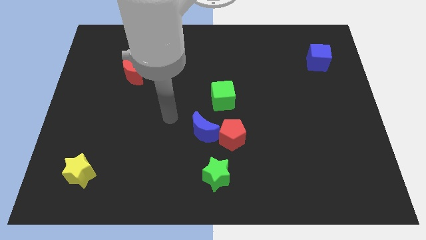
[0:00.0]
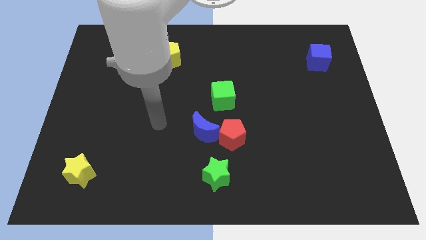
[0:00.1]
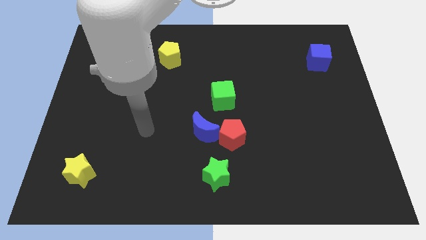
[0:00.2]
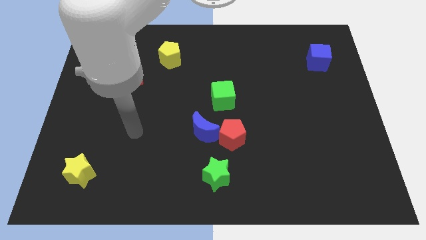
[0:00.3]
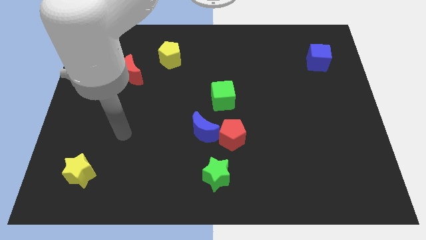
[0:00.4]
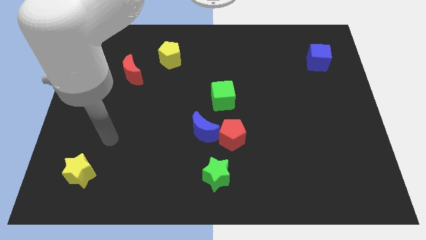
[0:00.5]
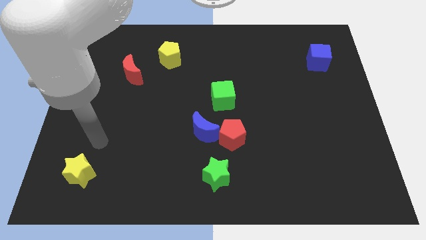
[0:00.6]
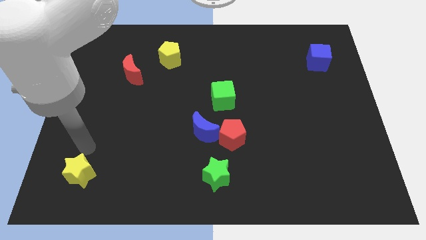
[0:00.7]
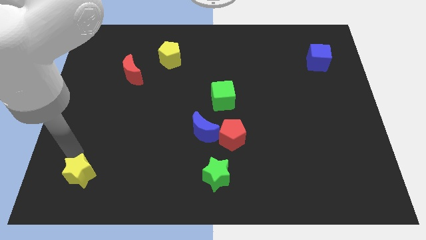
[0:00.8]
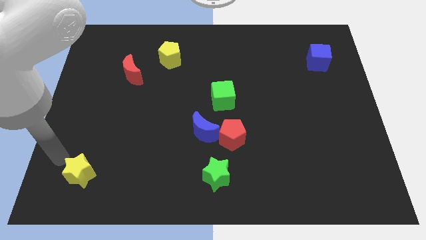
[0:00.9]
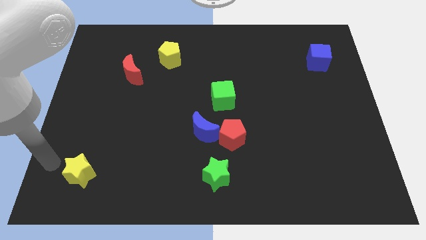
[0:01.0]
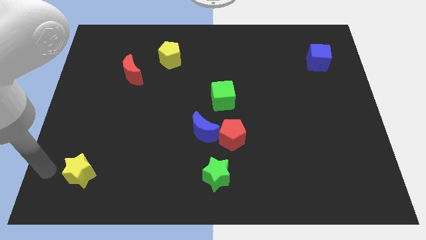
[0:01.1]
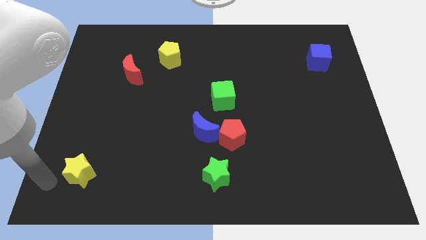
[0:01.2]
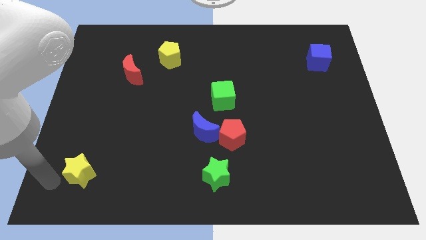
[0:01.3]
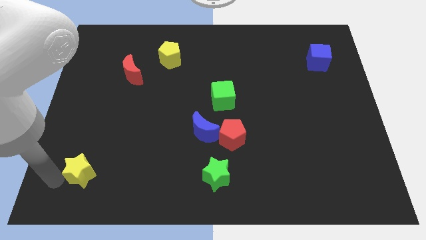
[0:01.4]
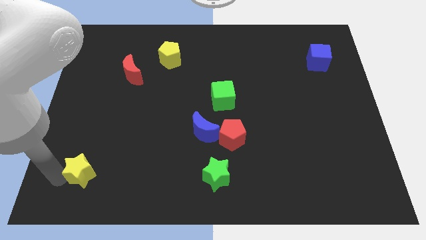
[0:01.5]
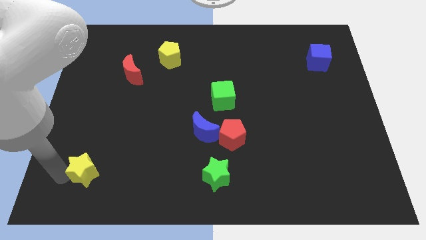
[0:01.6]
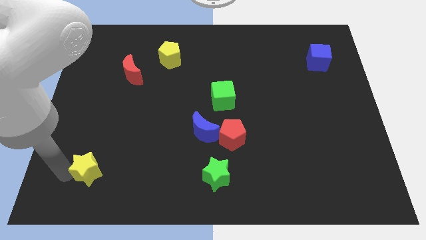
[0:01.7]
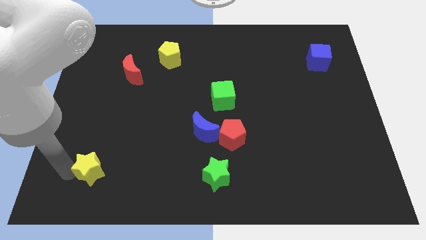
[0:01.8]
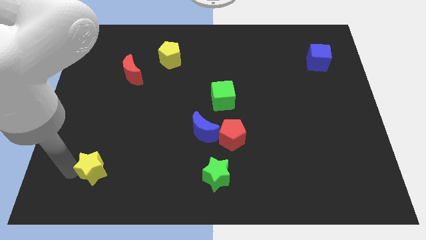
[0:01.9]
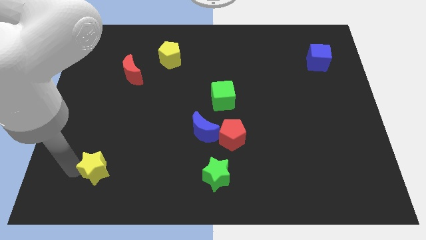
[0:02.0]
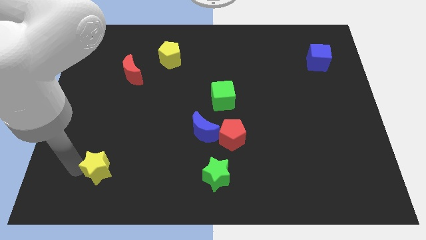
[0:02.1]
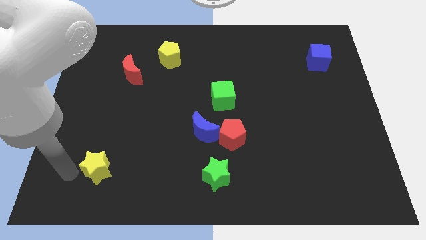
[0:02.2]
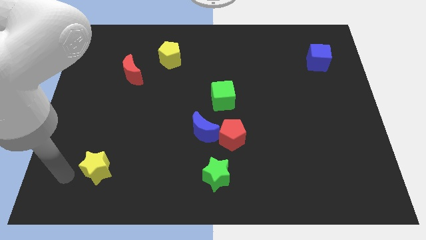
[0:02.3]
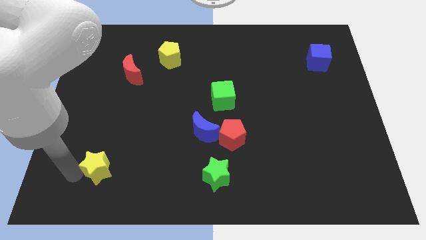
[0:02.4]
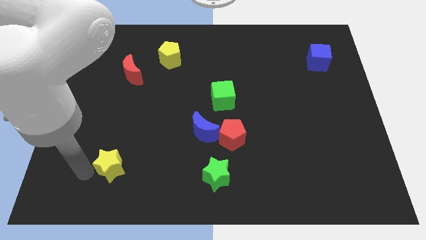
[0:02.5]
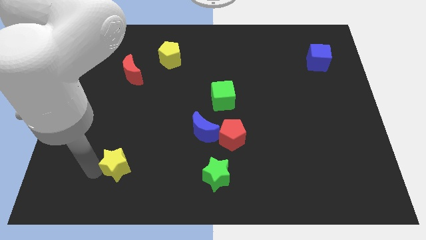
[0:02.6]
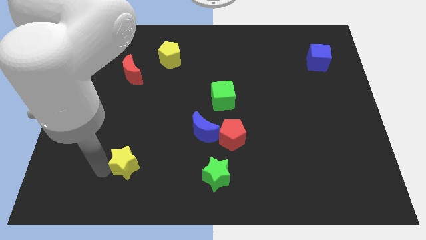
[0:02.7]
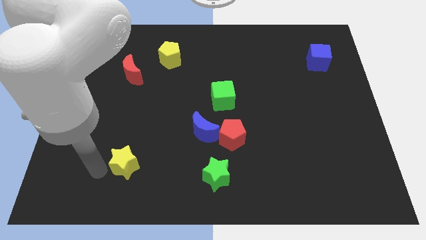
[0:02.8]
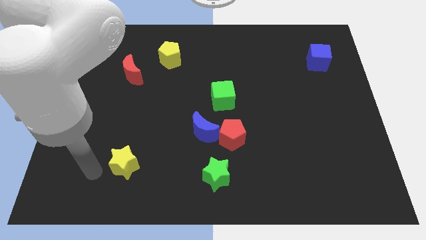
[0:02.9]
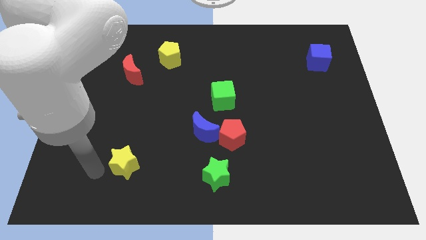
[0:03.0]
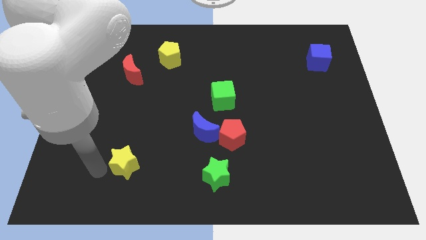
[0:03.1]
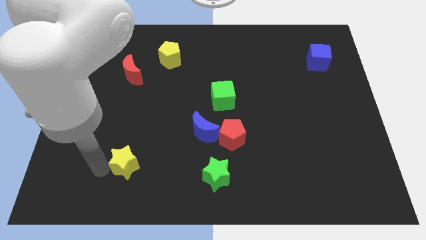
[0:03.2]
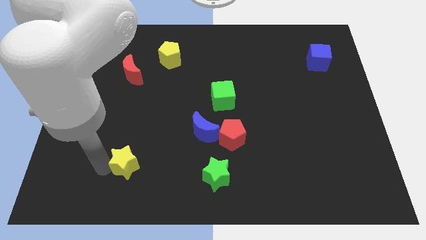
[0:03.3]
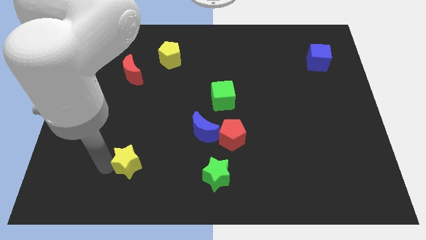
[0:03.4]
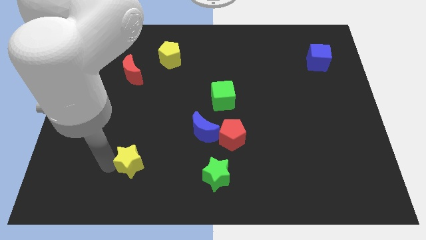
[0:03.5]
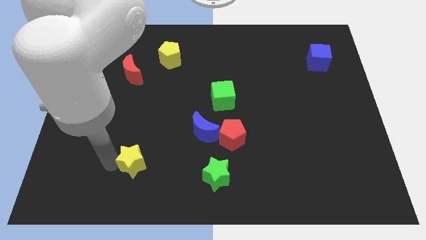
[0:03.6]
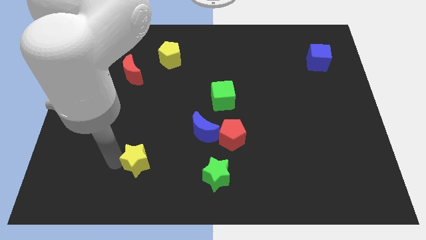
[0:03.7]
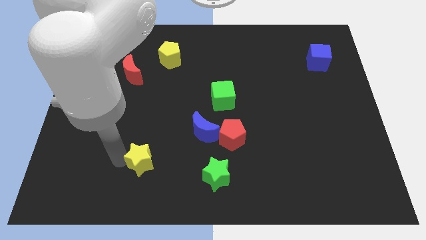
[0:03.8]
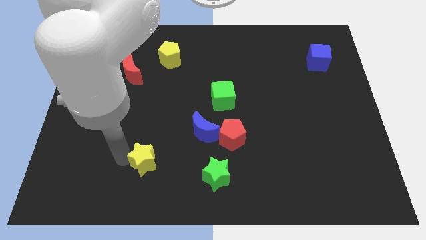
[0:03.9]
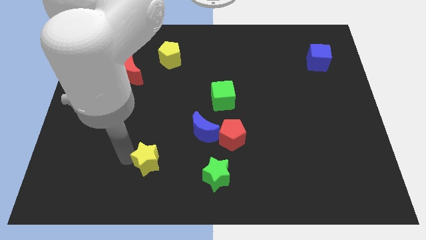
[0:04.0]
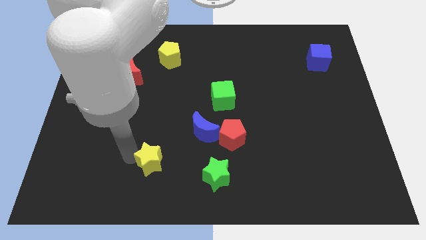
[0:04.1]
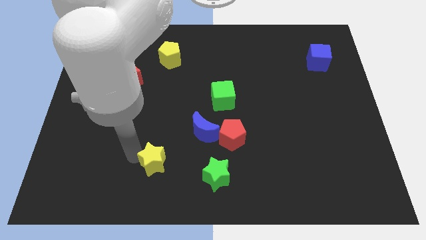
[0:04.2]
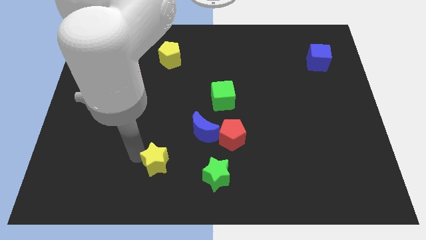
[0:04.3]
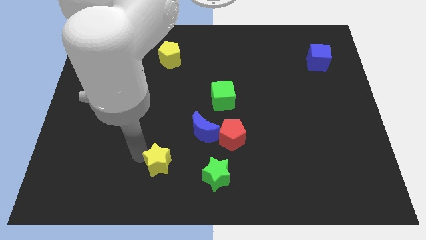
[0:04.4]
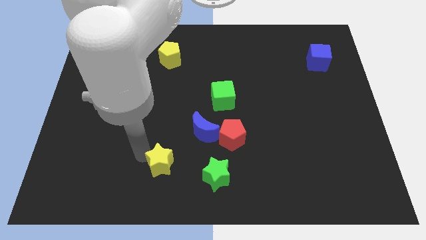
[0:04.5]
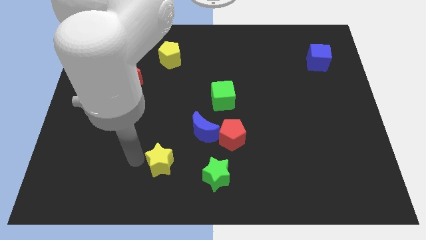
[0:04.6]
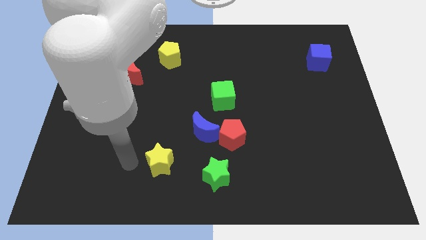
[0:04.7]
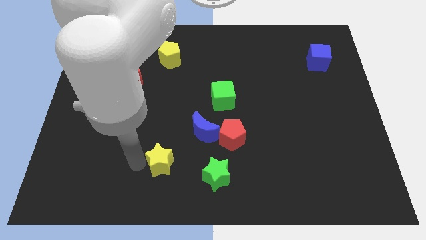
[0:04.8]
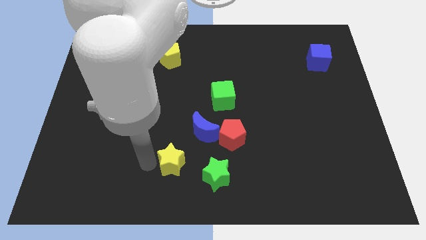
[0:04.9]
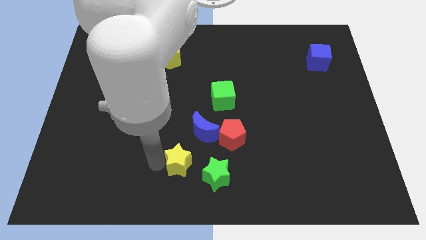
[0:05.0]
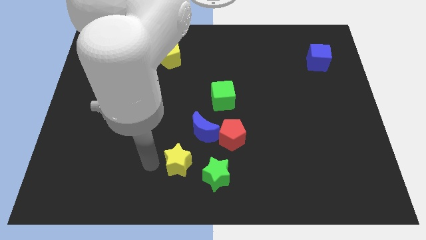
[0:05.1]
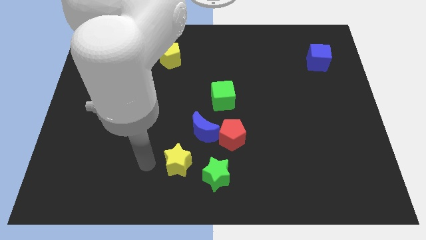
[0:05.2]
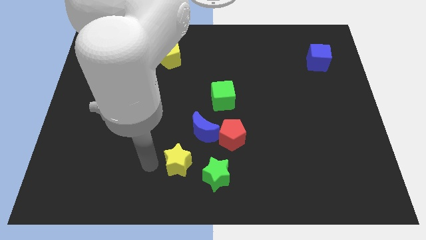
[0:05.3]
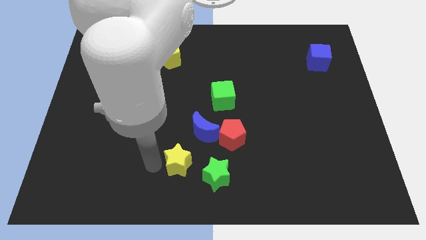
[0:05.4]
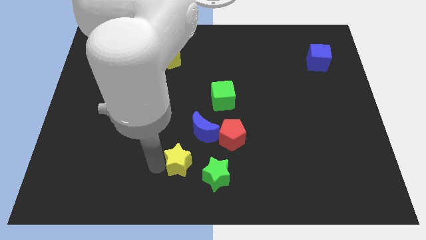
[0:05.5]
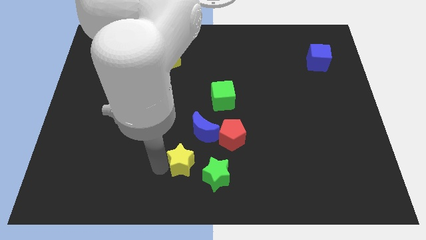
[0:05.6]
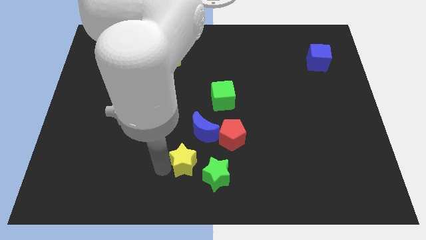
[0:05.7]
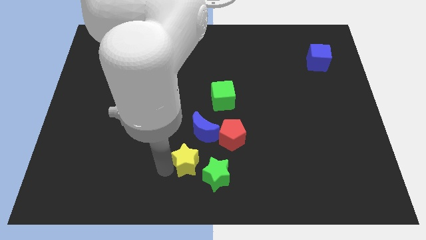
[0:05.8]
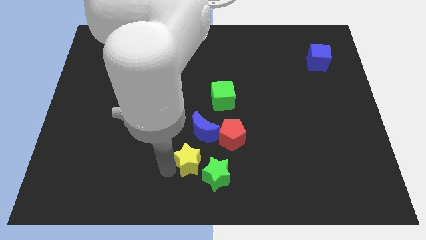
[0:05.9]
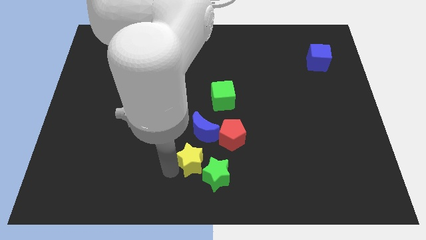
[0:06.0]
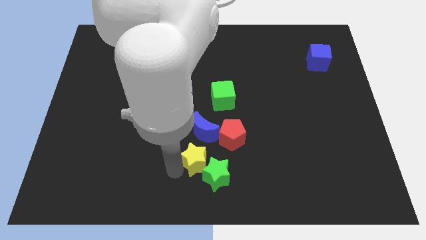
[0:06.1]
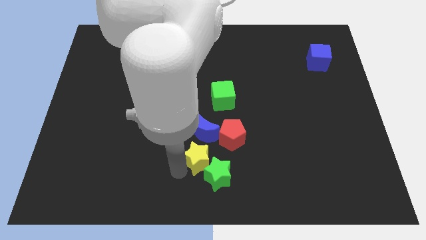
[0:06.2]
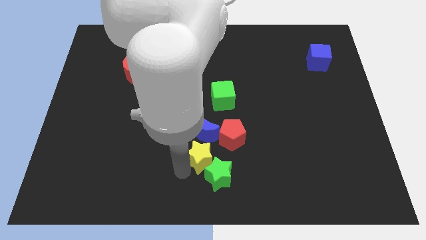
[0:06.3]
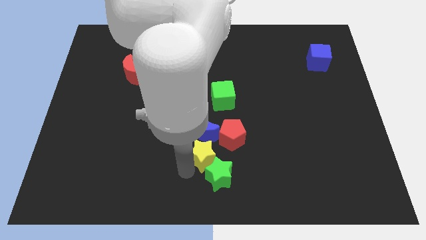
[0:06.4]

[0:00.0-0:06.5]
put the yellow star diagonally down and to the right of the blue moon
